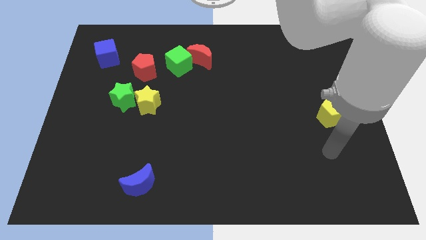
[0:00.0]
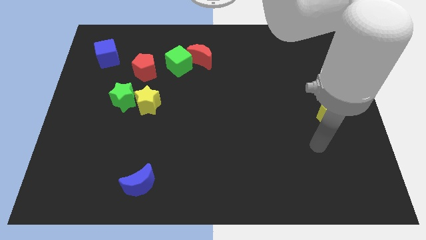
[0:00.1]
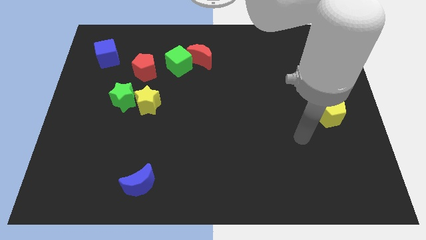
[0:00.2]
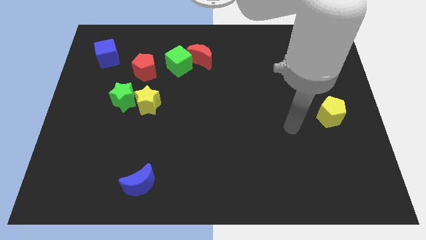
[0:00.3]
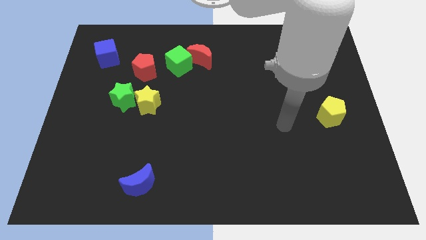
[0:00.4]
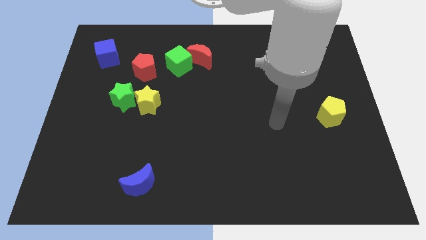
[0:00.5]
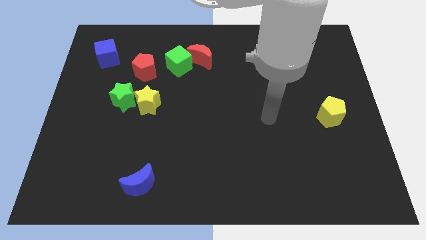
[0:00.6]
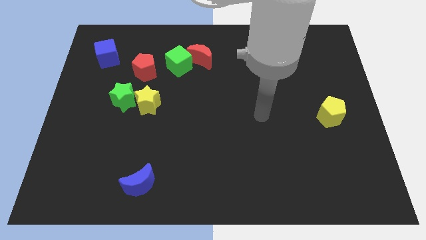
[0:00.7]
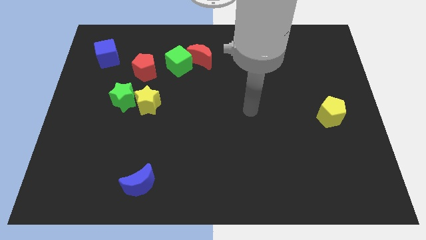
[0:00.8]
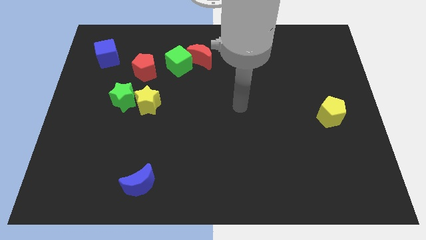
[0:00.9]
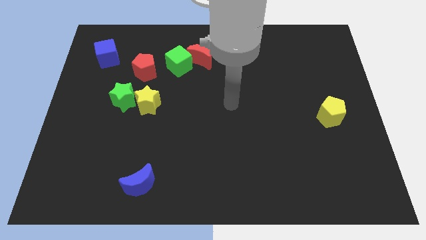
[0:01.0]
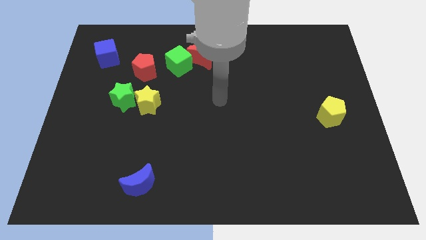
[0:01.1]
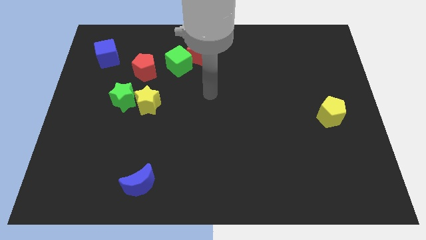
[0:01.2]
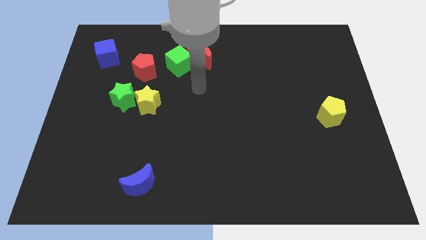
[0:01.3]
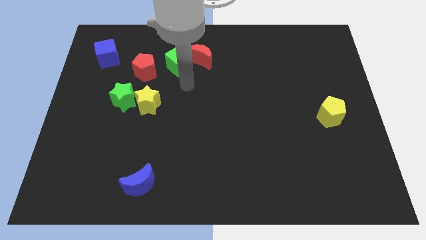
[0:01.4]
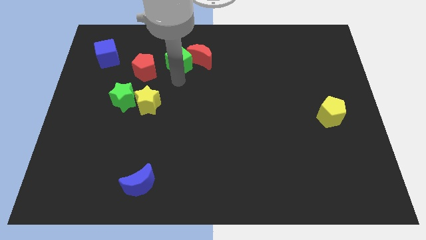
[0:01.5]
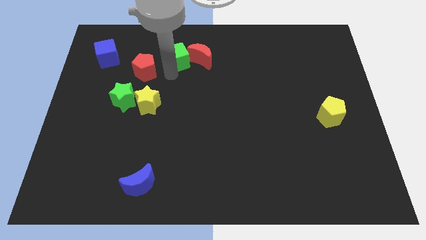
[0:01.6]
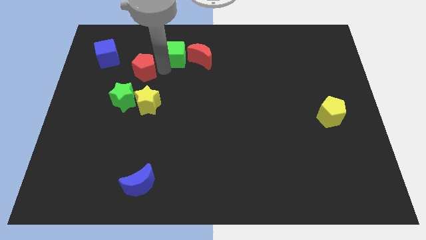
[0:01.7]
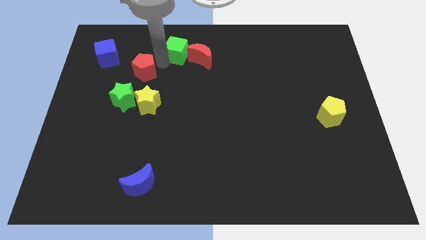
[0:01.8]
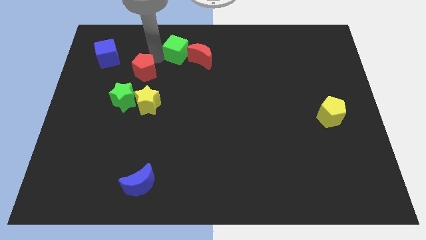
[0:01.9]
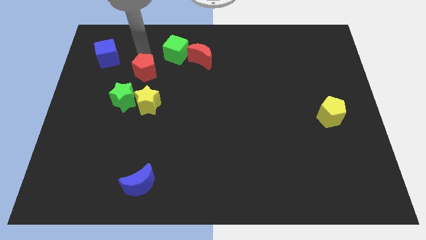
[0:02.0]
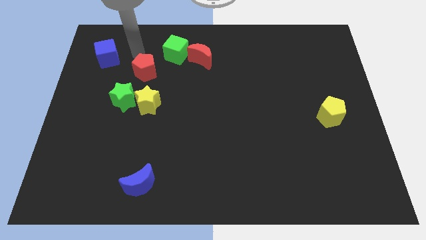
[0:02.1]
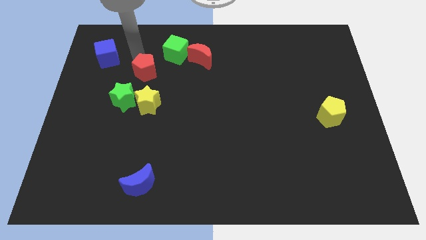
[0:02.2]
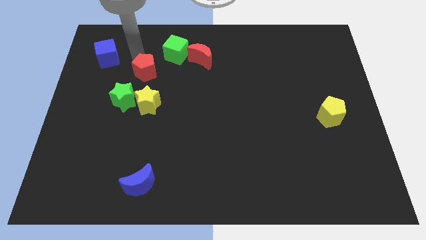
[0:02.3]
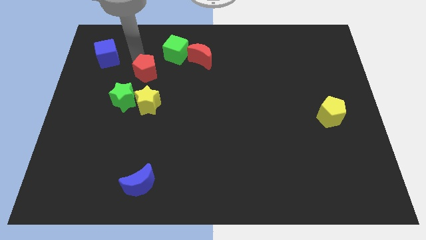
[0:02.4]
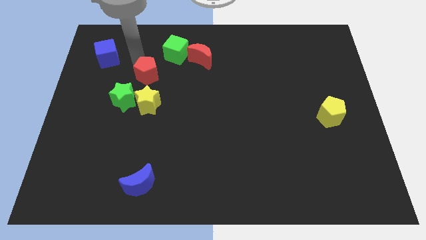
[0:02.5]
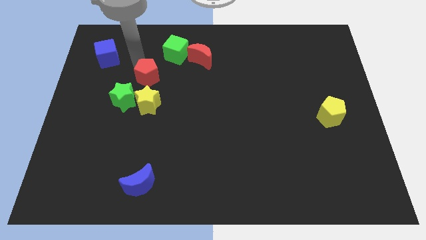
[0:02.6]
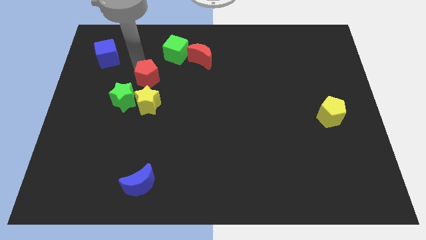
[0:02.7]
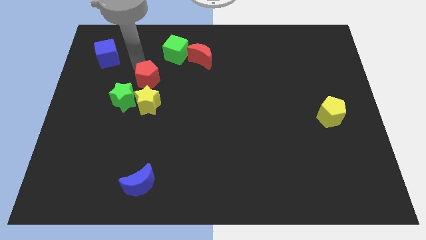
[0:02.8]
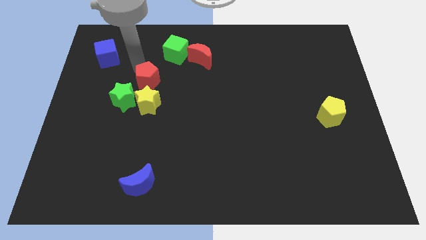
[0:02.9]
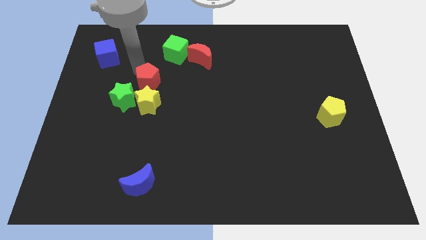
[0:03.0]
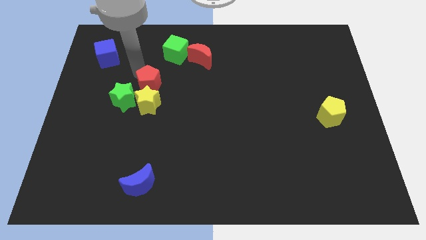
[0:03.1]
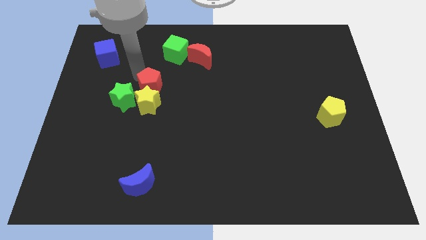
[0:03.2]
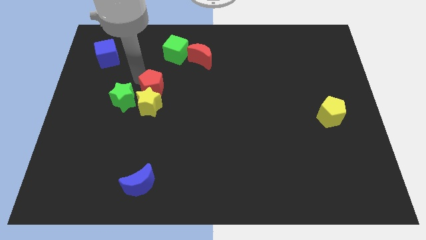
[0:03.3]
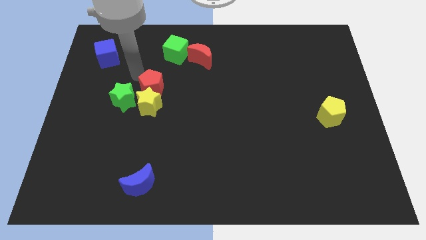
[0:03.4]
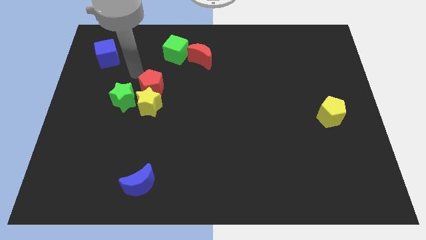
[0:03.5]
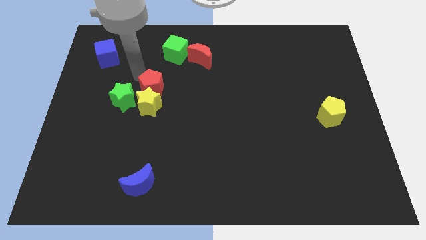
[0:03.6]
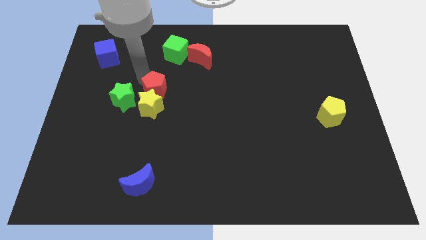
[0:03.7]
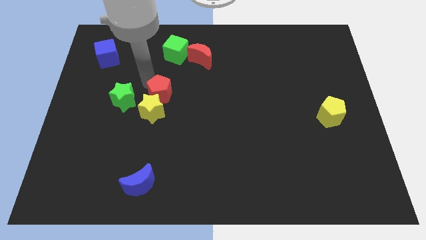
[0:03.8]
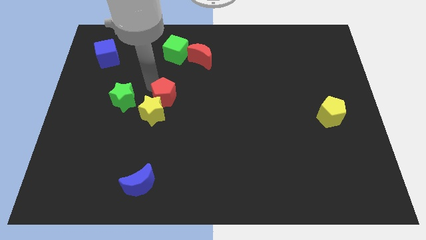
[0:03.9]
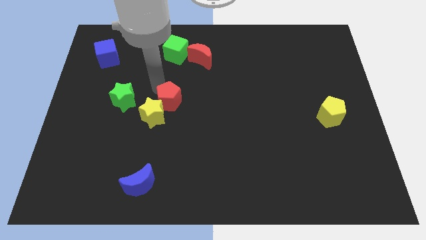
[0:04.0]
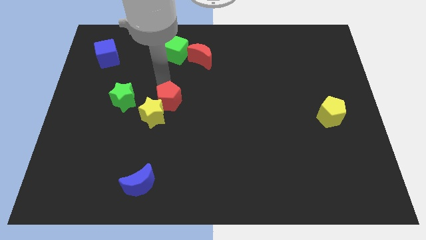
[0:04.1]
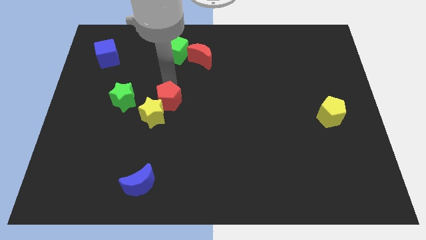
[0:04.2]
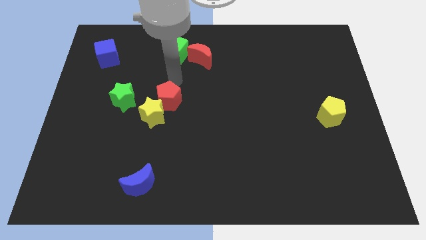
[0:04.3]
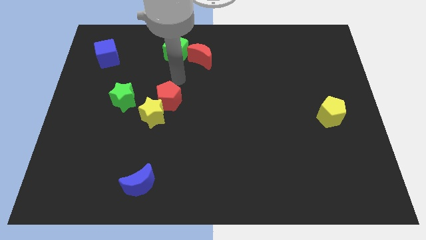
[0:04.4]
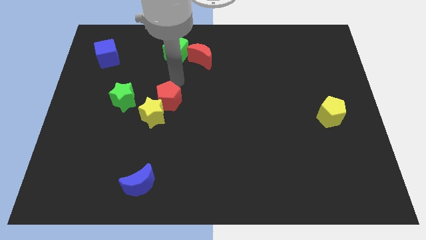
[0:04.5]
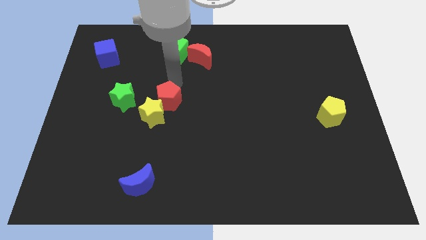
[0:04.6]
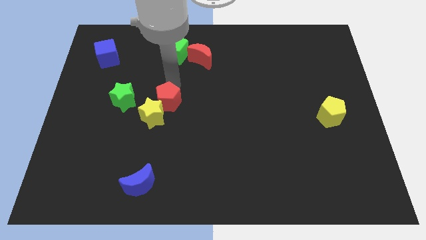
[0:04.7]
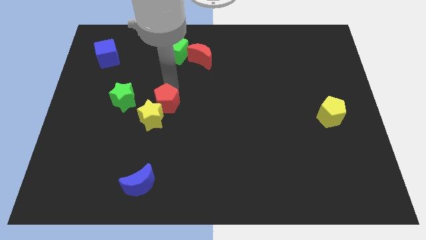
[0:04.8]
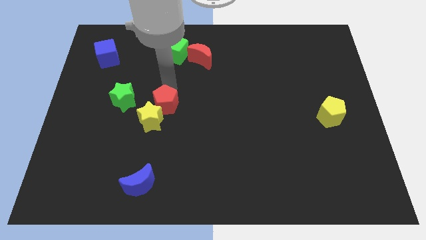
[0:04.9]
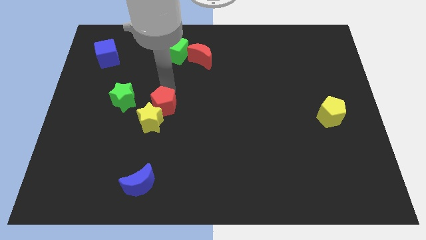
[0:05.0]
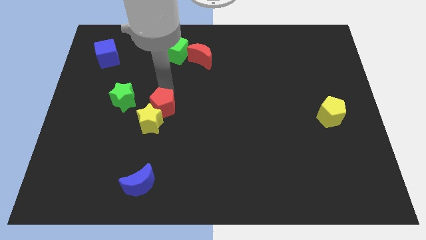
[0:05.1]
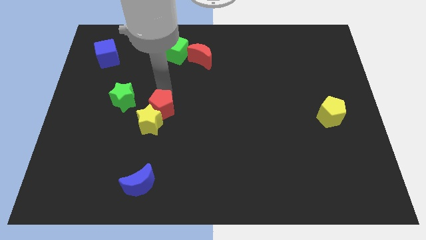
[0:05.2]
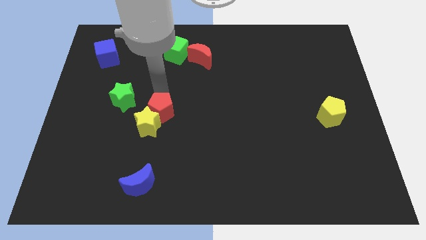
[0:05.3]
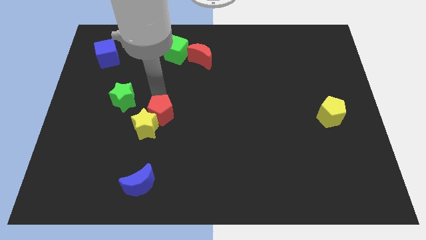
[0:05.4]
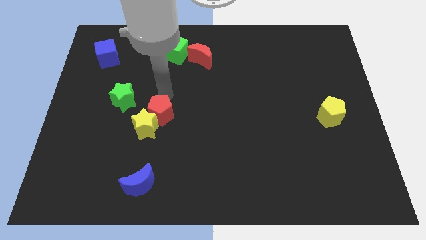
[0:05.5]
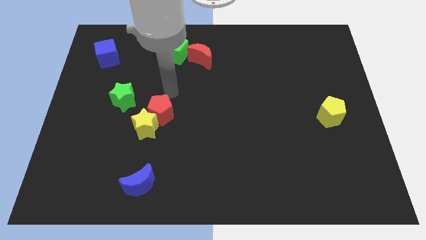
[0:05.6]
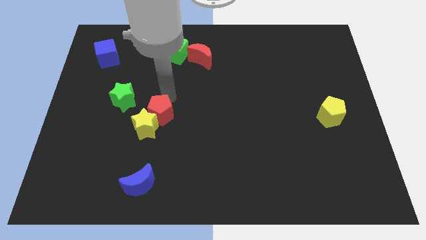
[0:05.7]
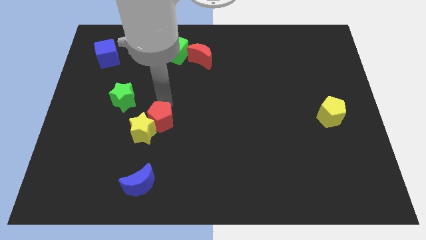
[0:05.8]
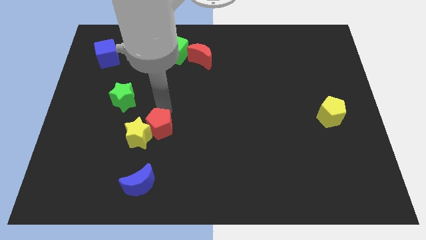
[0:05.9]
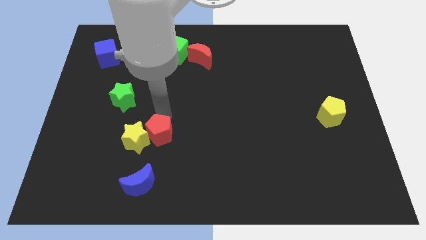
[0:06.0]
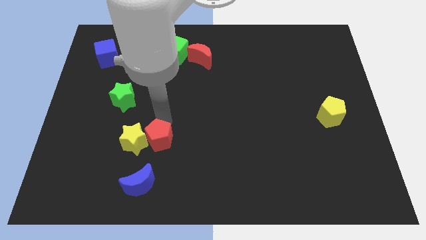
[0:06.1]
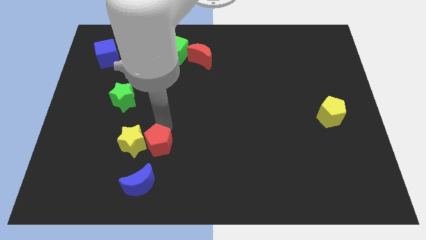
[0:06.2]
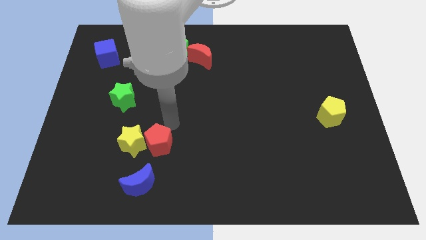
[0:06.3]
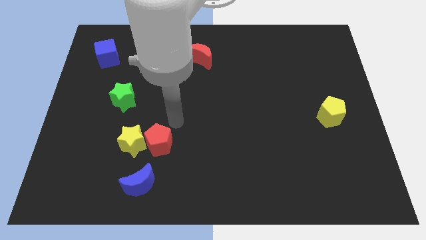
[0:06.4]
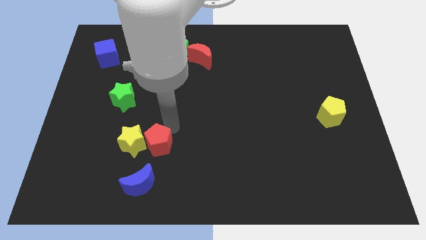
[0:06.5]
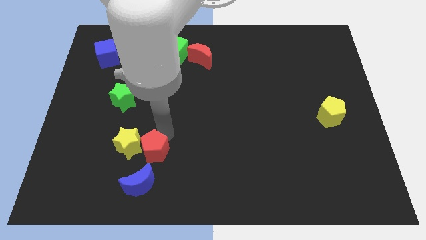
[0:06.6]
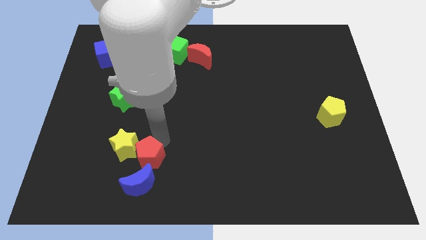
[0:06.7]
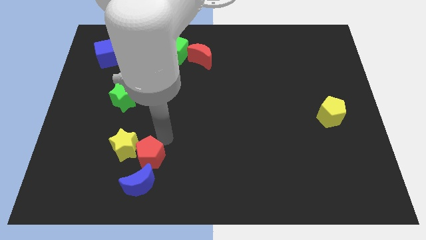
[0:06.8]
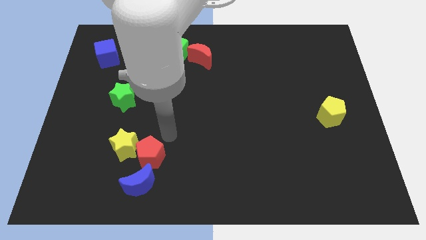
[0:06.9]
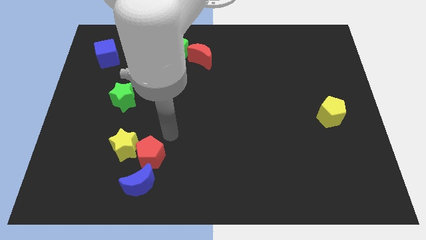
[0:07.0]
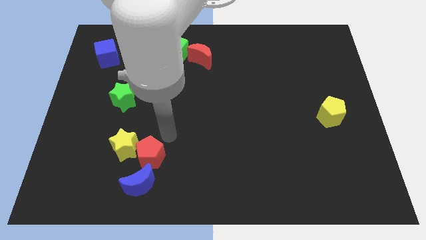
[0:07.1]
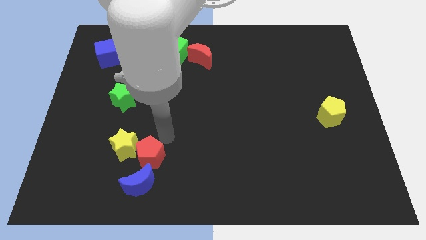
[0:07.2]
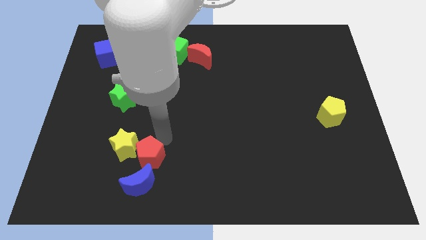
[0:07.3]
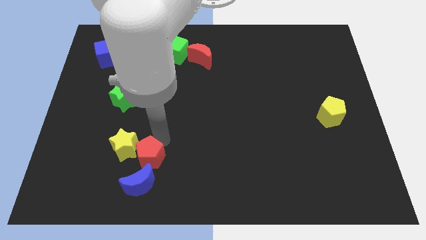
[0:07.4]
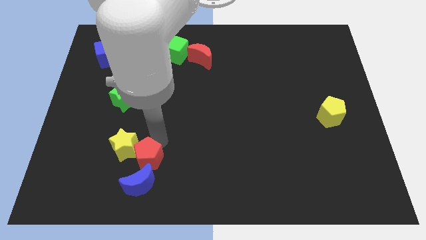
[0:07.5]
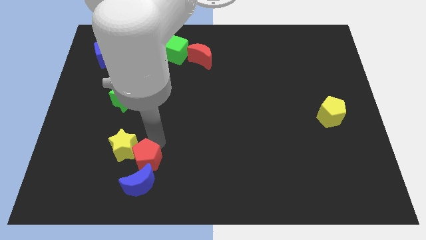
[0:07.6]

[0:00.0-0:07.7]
move the red pentagon next to the blue moon
